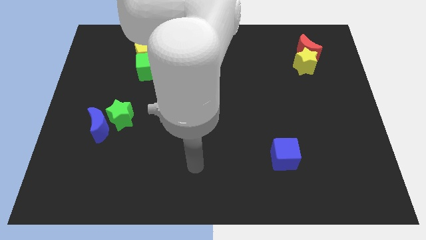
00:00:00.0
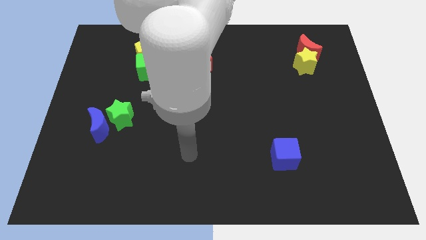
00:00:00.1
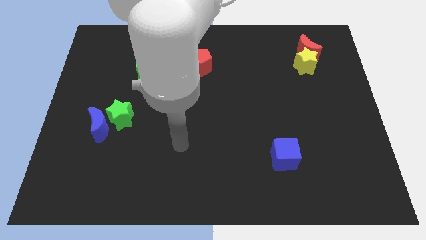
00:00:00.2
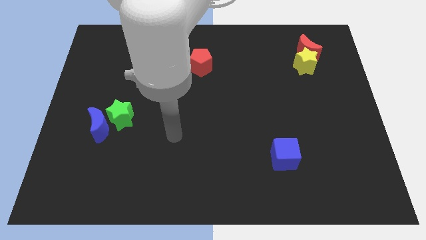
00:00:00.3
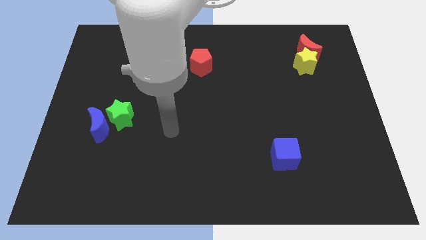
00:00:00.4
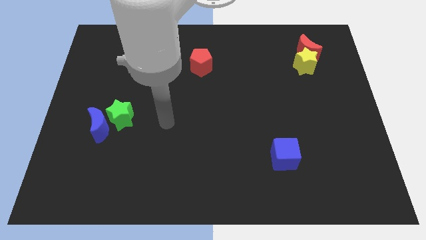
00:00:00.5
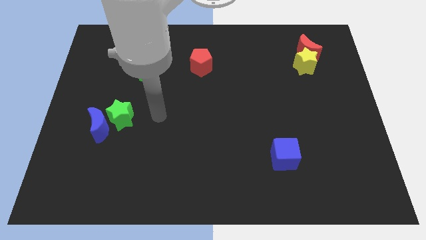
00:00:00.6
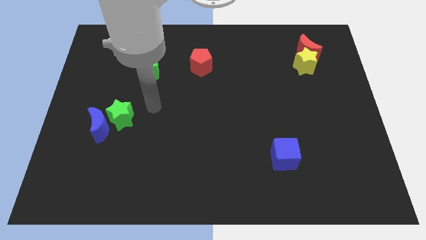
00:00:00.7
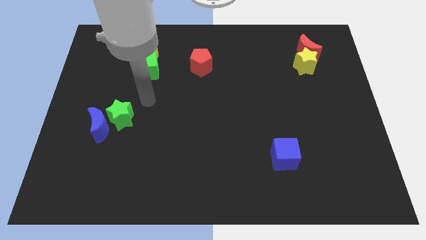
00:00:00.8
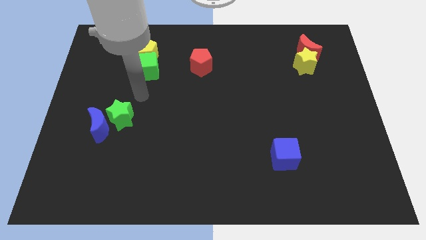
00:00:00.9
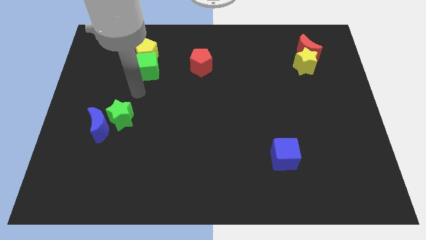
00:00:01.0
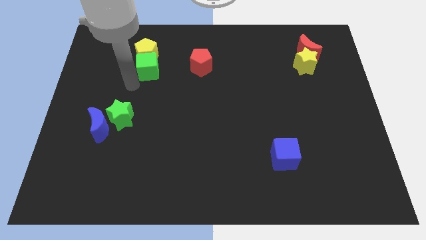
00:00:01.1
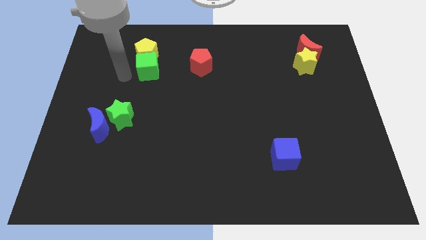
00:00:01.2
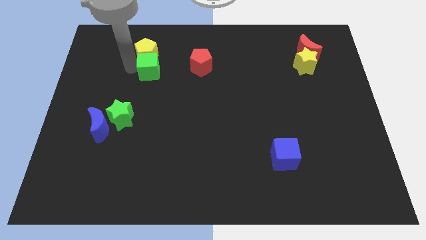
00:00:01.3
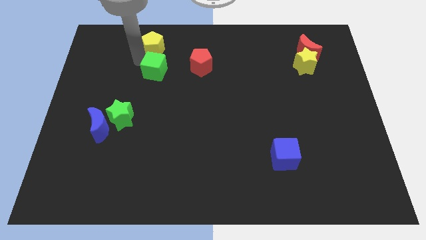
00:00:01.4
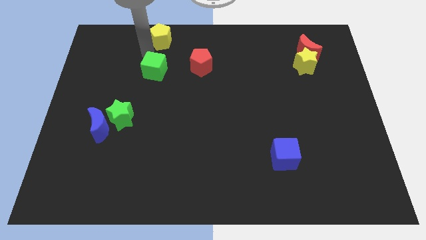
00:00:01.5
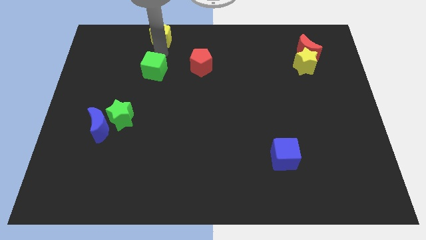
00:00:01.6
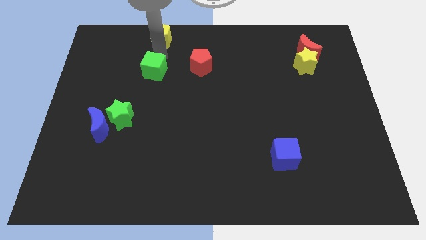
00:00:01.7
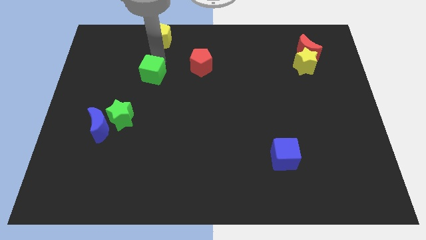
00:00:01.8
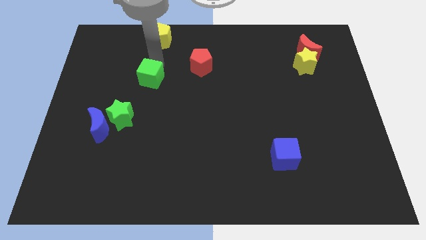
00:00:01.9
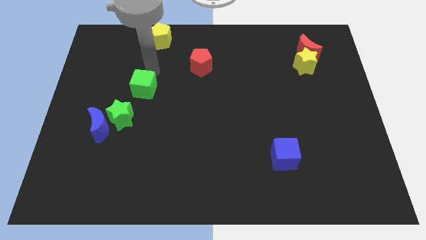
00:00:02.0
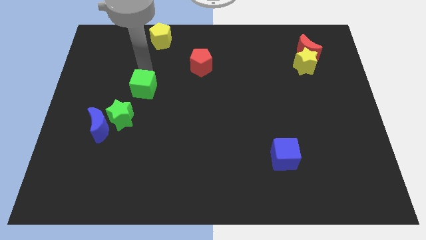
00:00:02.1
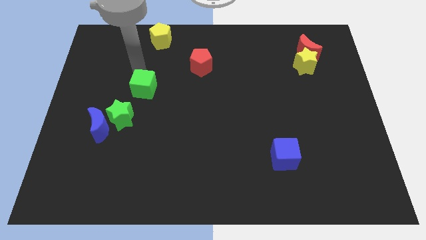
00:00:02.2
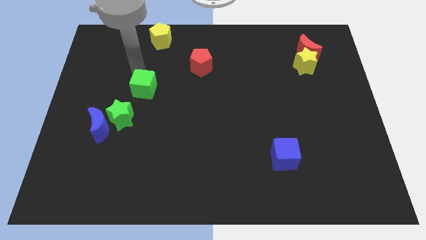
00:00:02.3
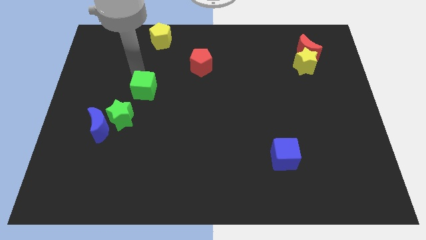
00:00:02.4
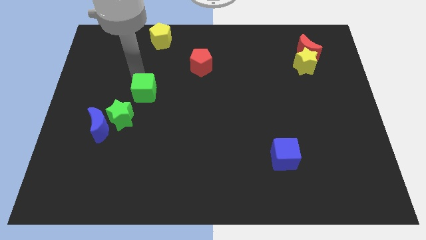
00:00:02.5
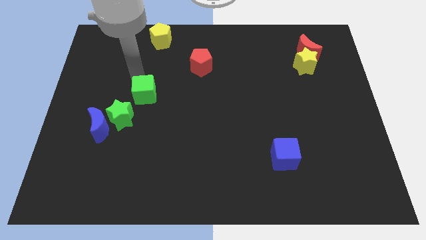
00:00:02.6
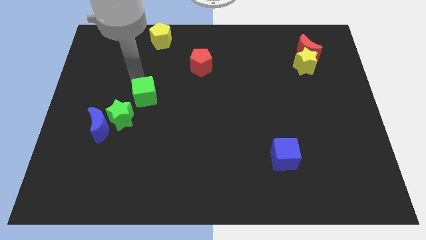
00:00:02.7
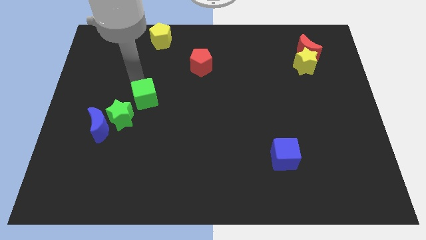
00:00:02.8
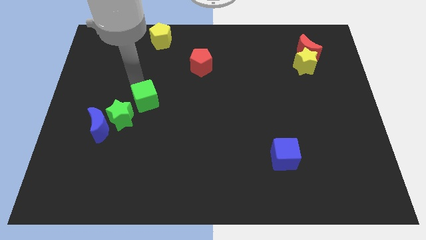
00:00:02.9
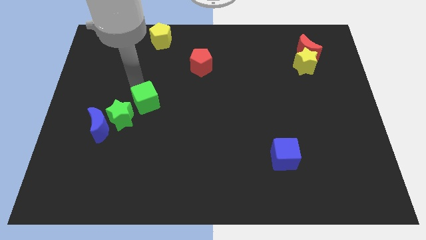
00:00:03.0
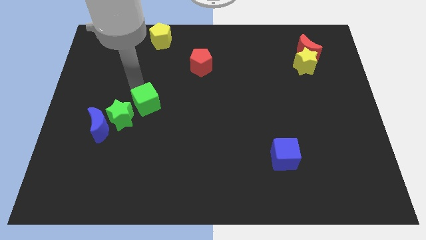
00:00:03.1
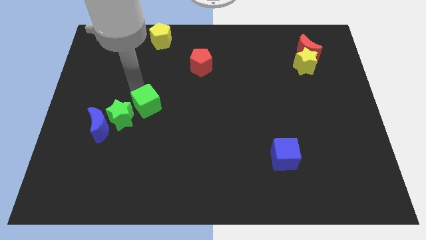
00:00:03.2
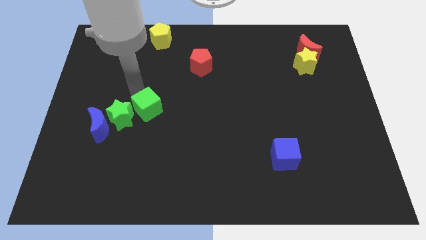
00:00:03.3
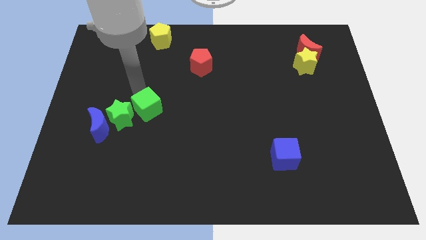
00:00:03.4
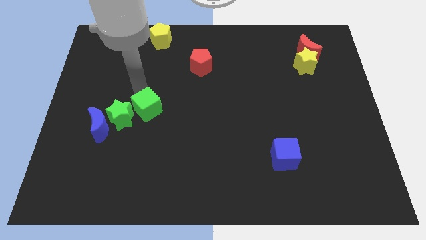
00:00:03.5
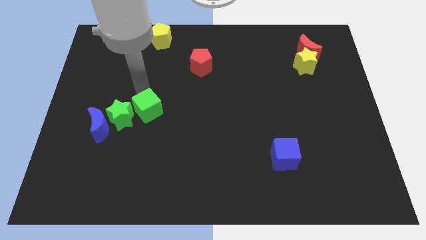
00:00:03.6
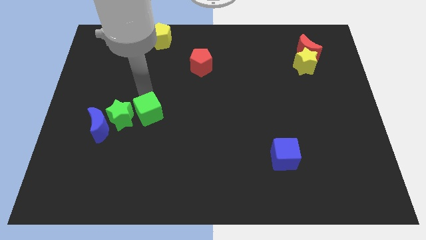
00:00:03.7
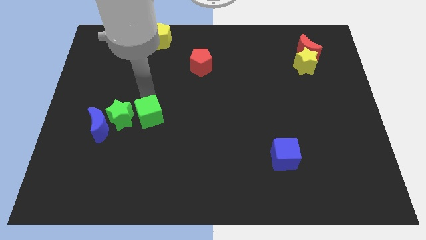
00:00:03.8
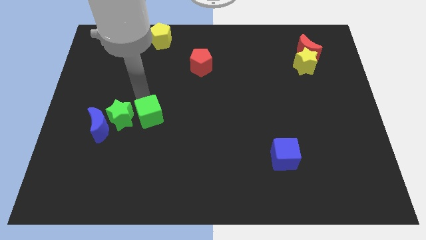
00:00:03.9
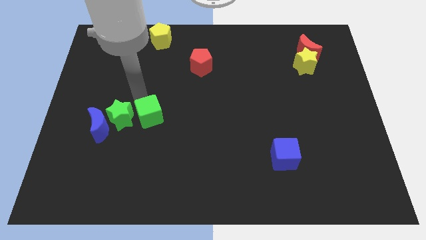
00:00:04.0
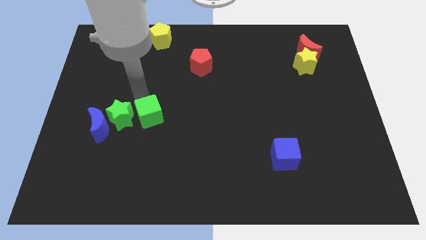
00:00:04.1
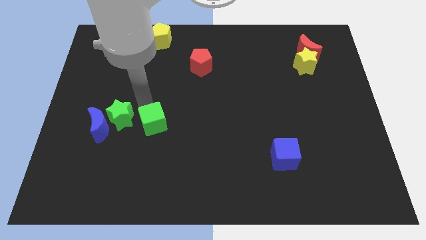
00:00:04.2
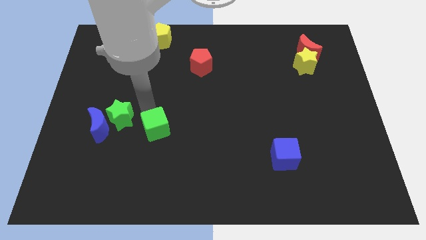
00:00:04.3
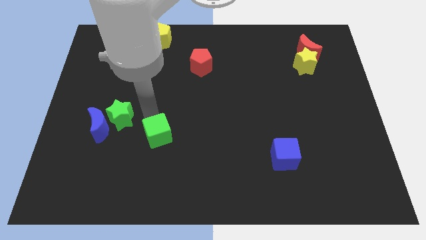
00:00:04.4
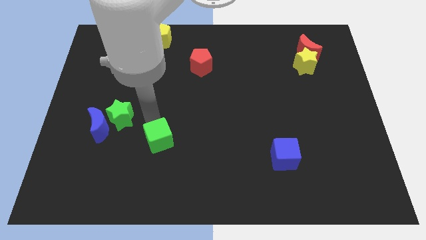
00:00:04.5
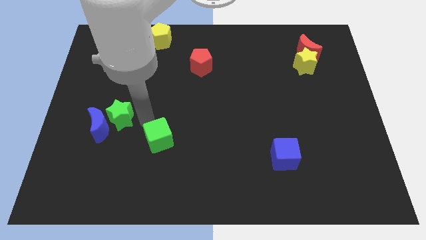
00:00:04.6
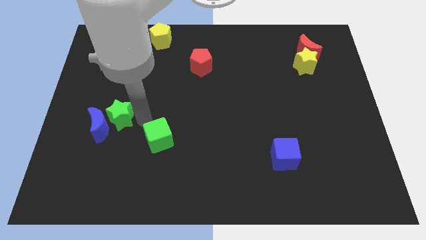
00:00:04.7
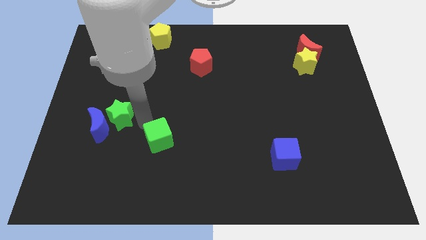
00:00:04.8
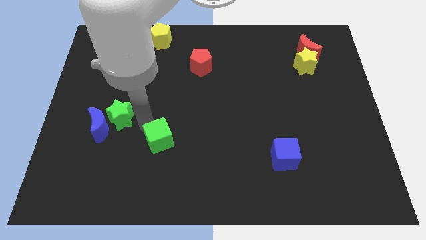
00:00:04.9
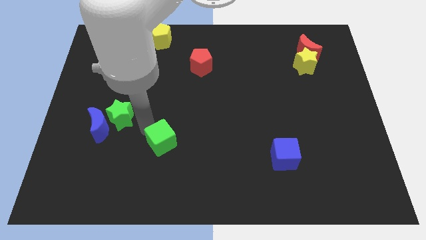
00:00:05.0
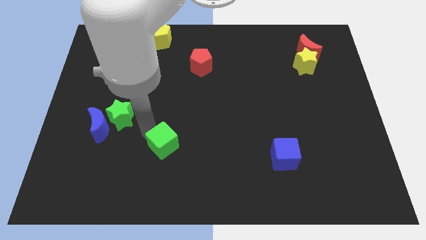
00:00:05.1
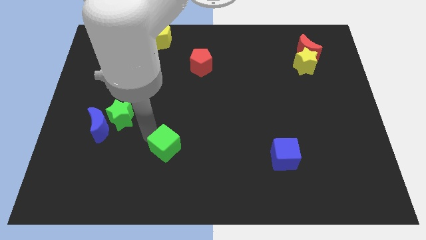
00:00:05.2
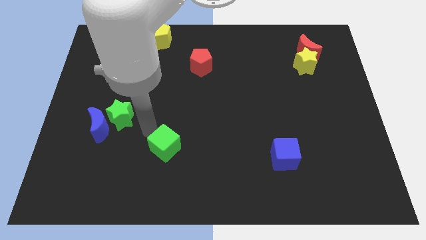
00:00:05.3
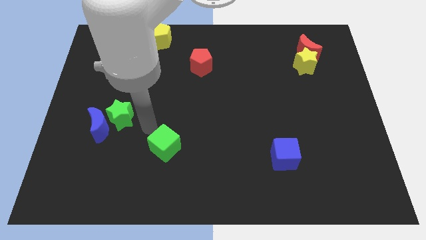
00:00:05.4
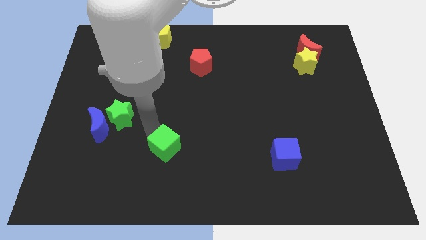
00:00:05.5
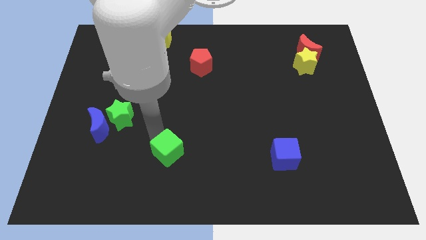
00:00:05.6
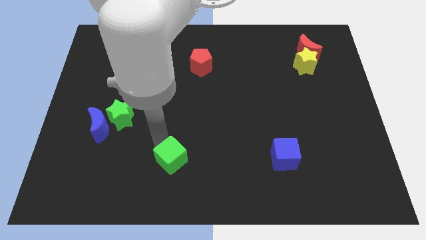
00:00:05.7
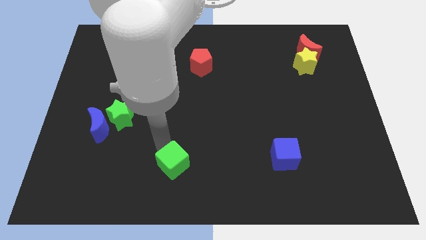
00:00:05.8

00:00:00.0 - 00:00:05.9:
put the green cube to the bottom
